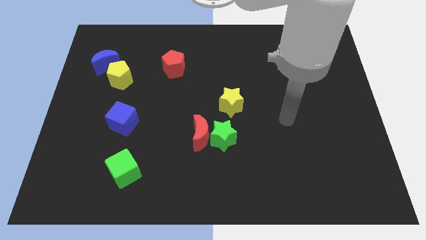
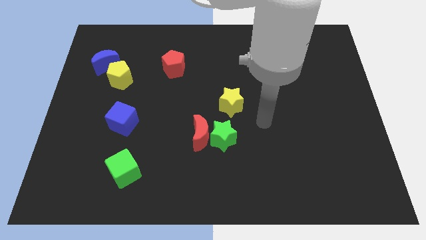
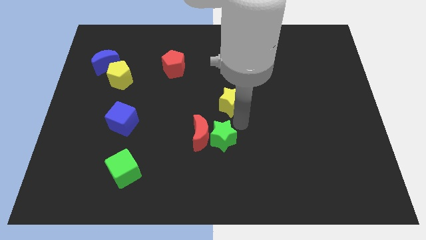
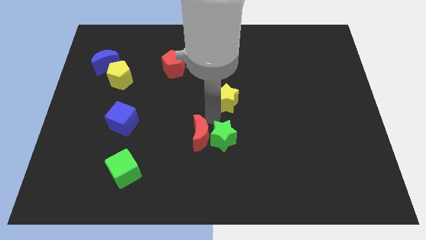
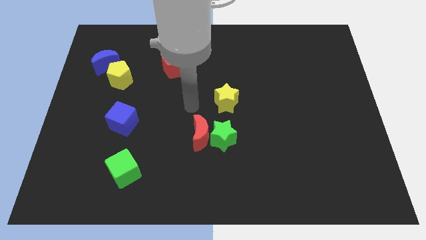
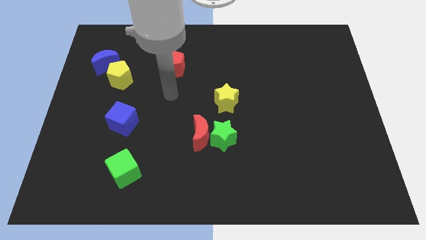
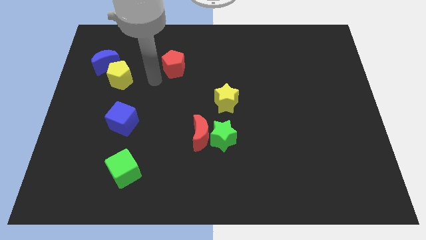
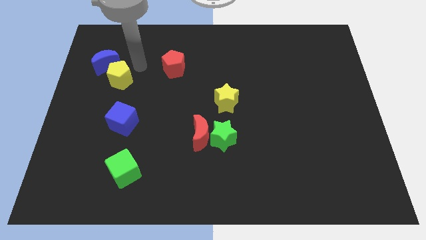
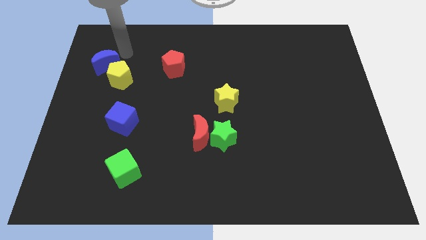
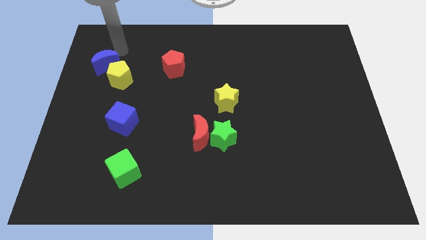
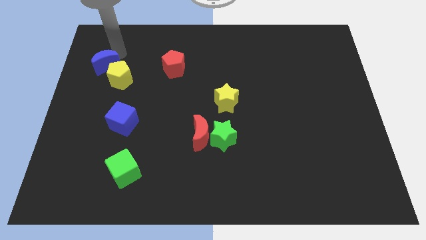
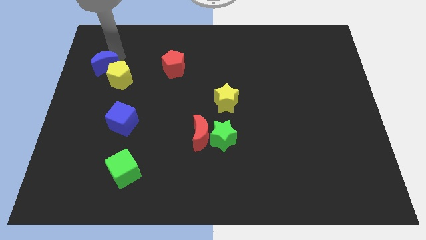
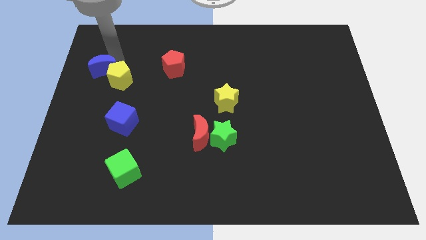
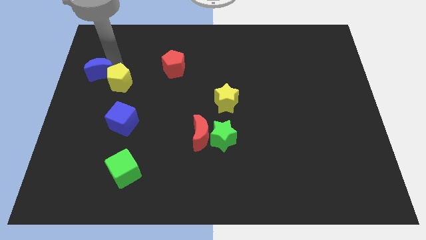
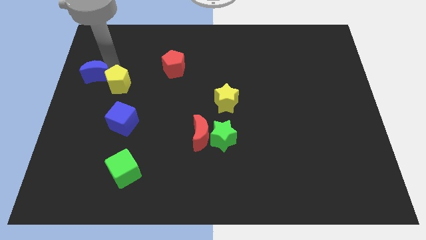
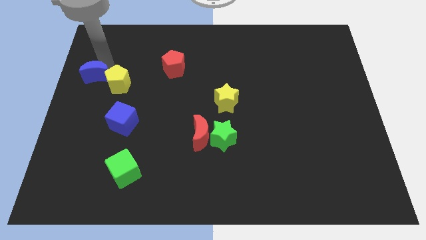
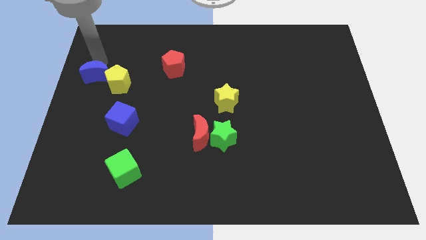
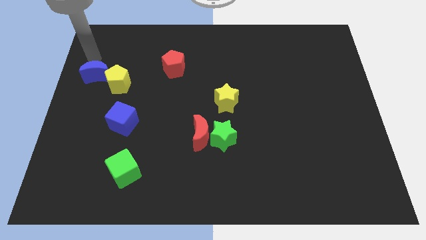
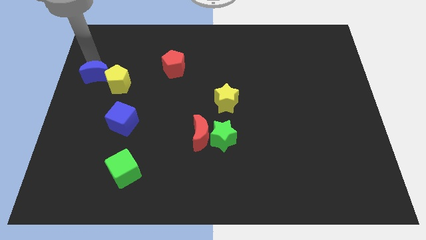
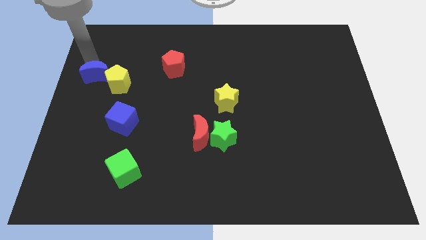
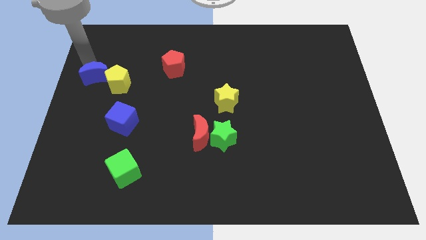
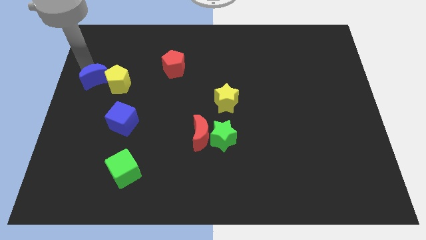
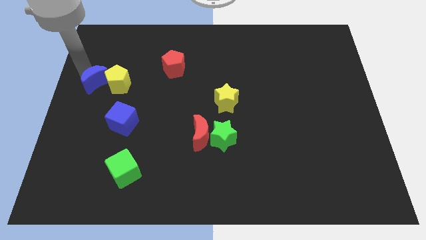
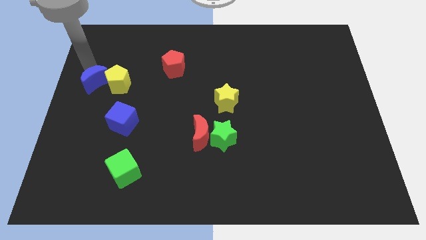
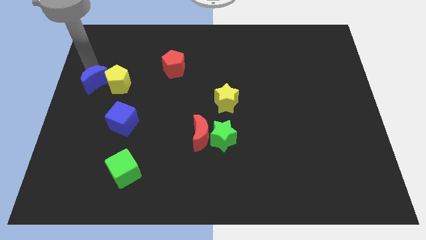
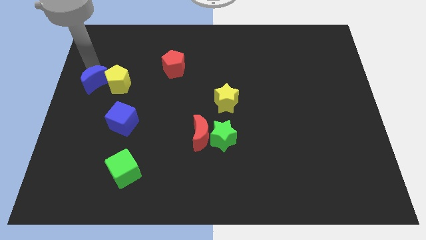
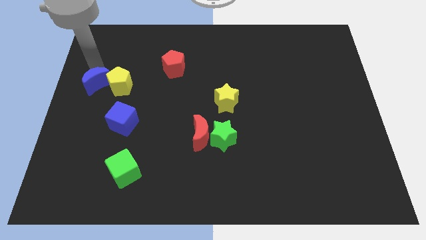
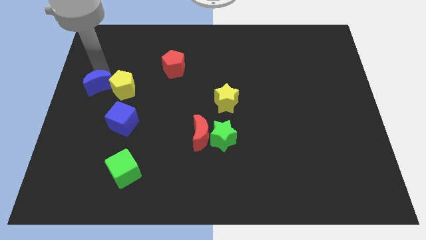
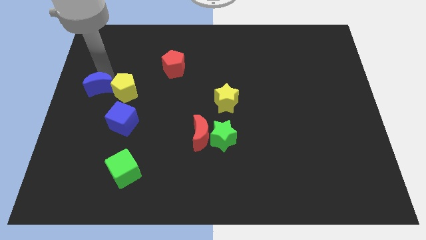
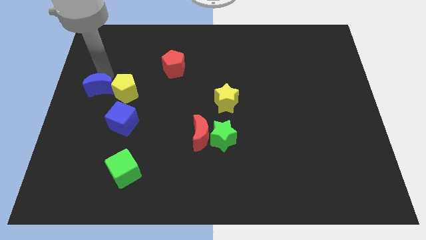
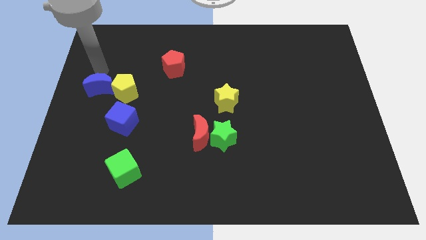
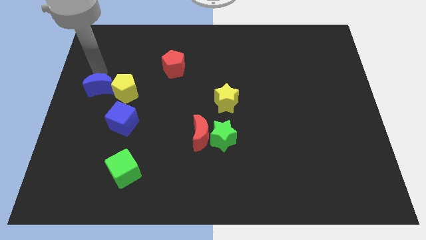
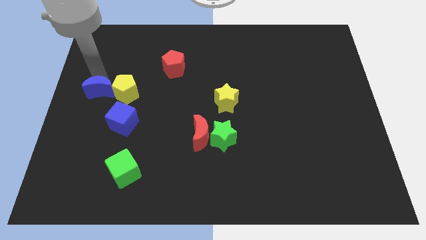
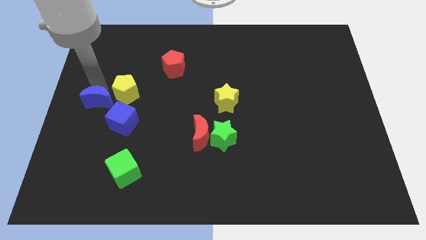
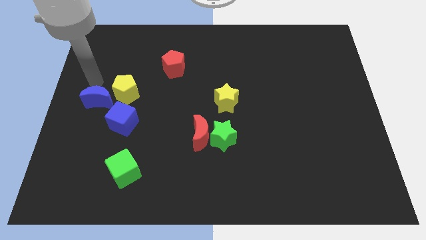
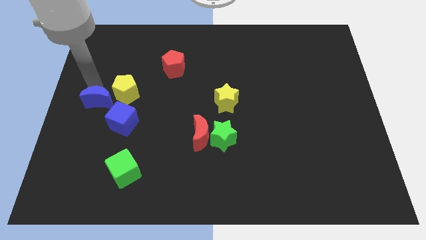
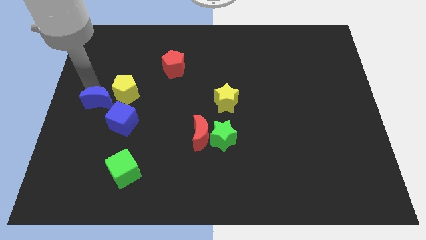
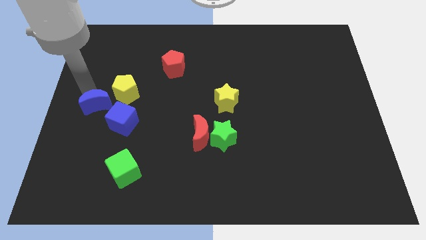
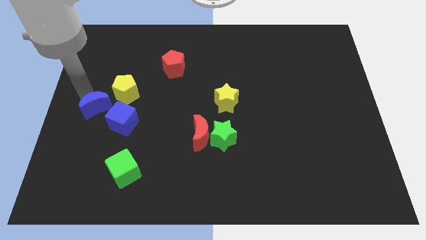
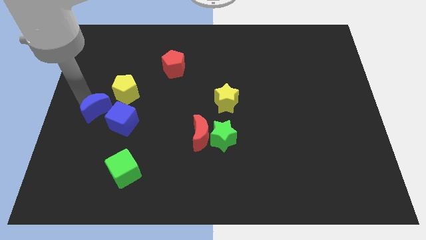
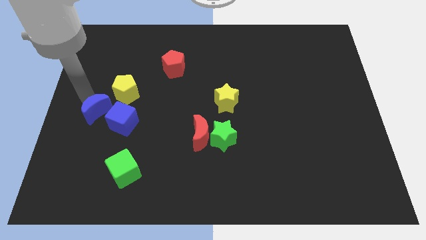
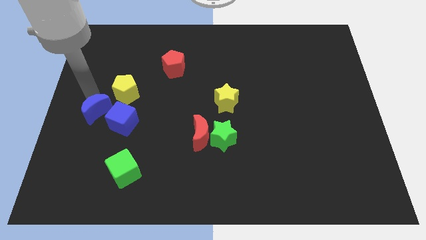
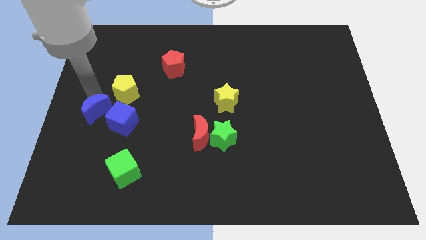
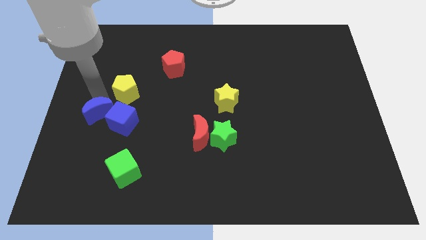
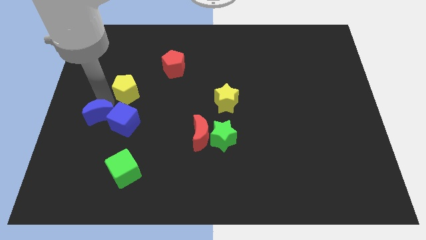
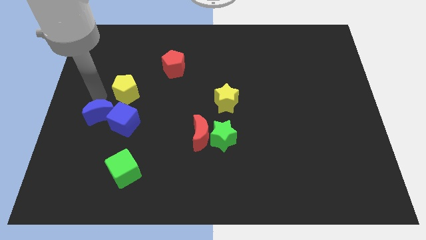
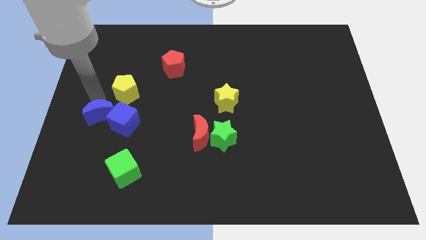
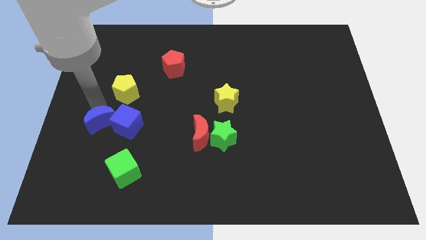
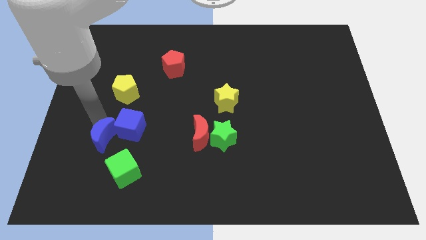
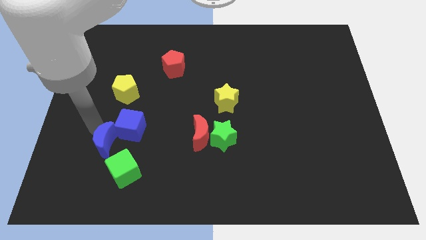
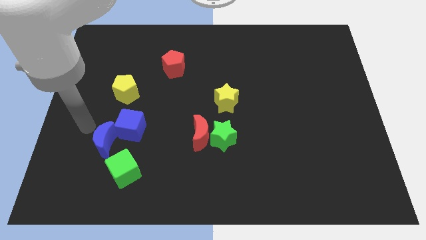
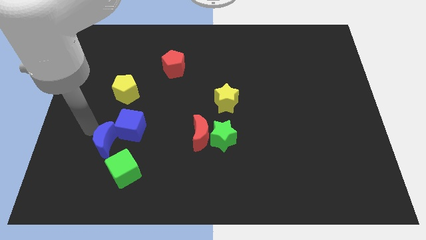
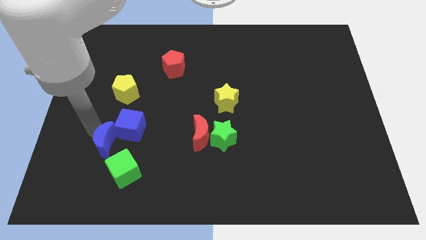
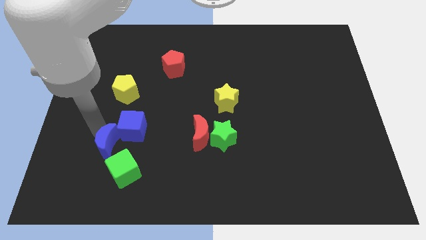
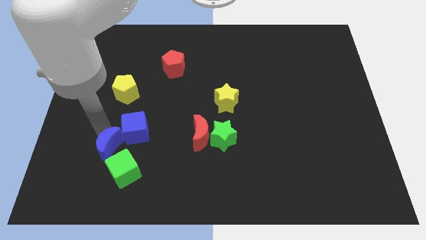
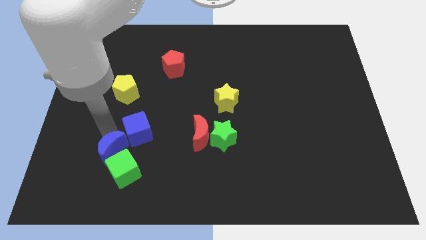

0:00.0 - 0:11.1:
slide the blue moon towards the green cube

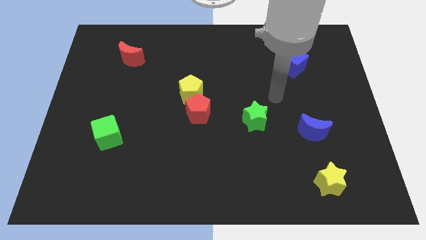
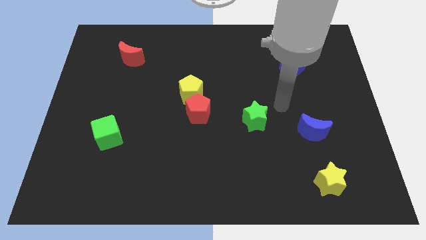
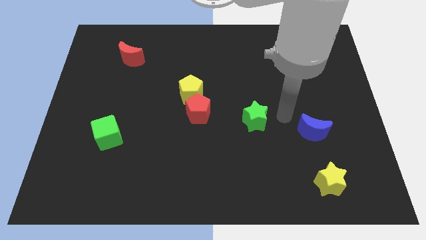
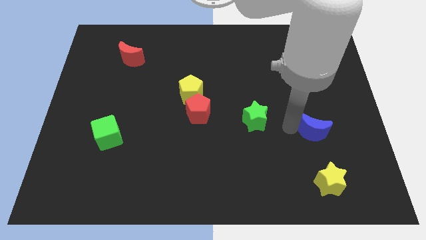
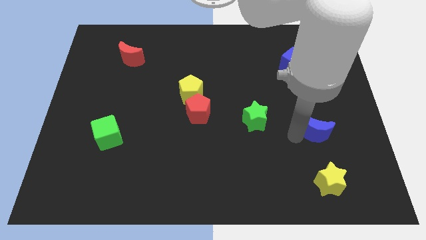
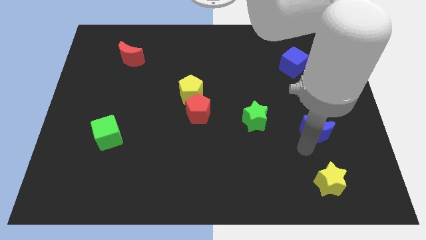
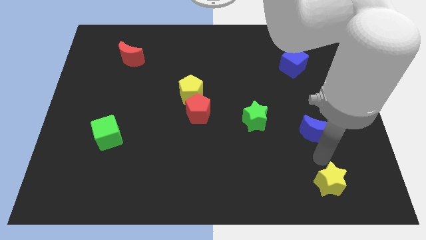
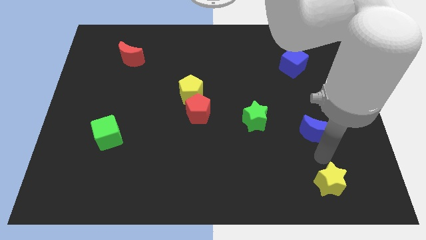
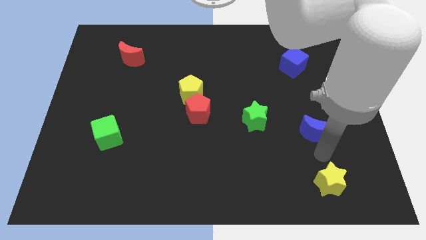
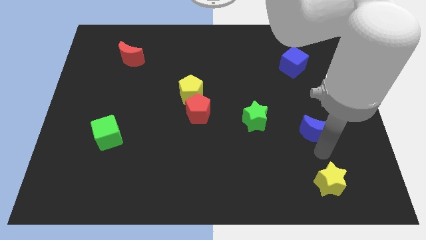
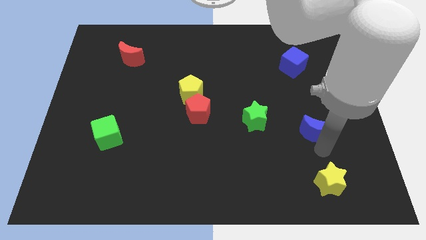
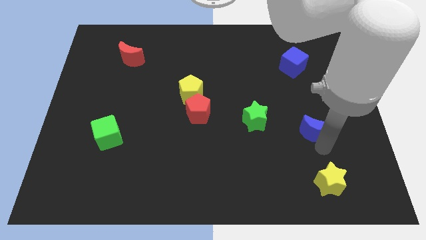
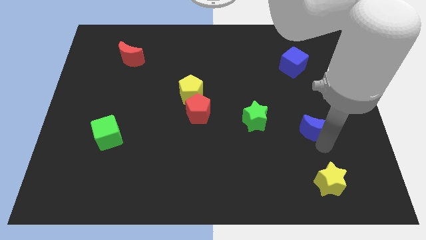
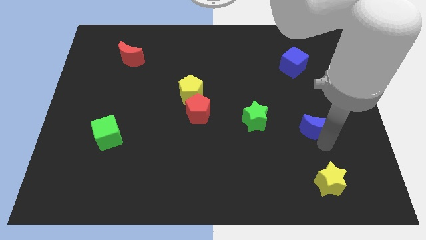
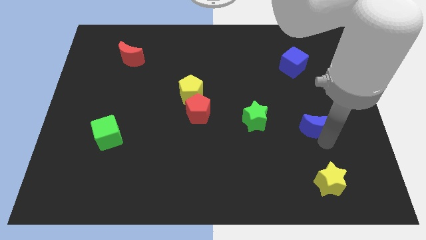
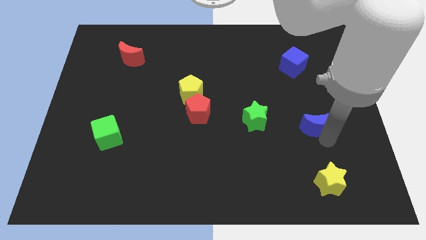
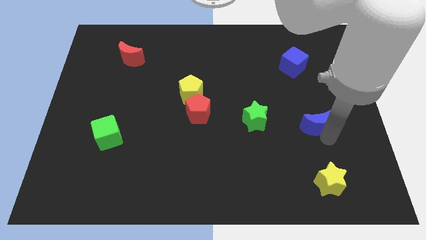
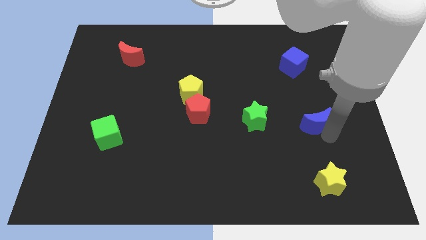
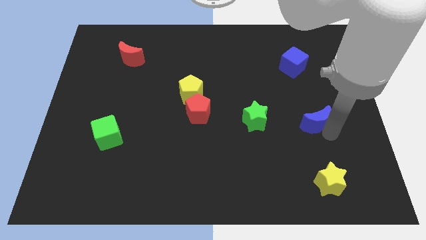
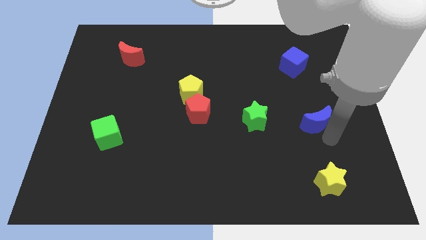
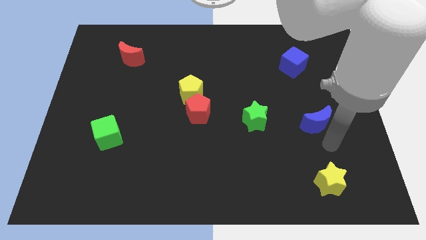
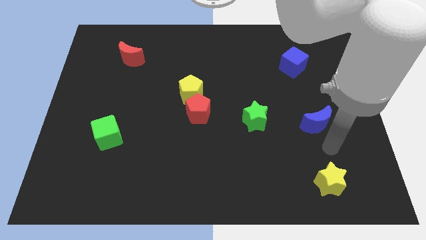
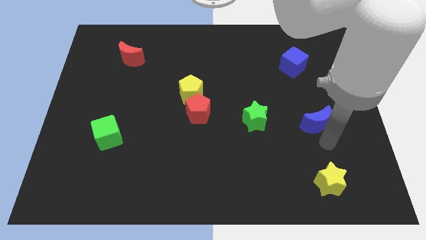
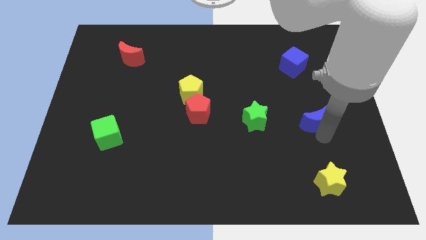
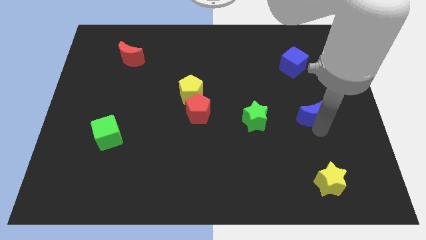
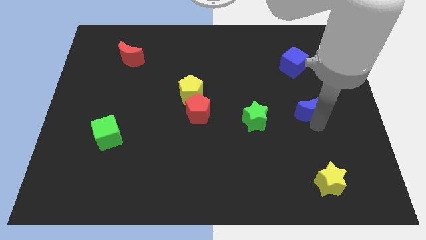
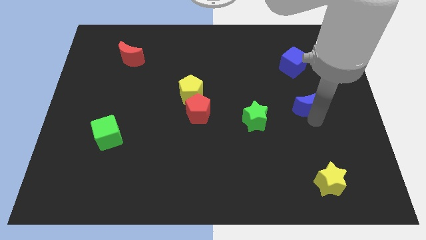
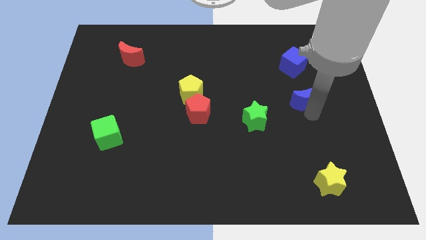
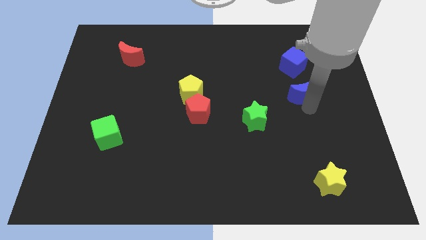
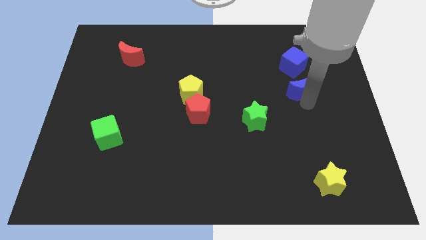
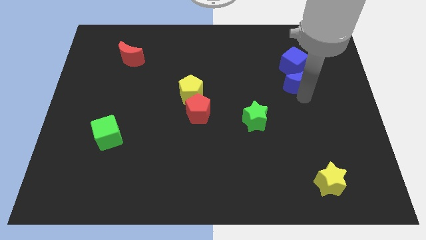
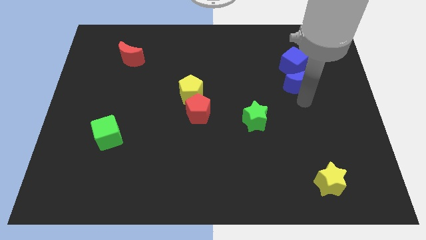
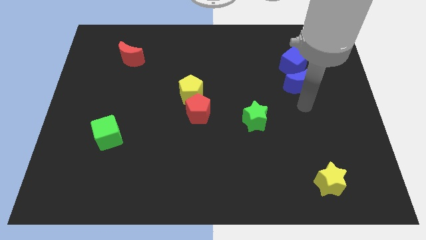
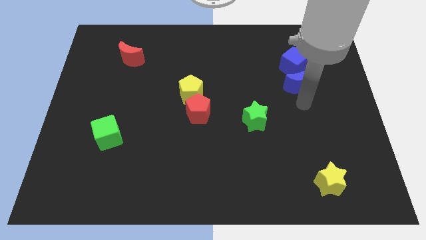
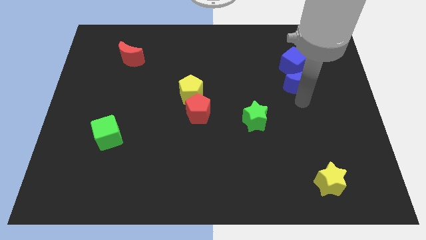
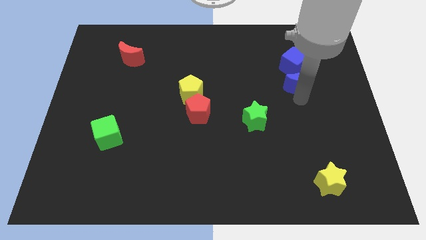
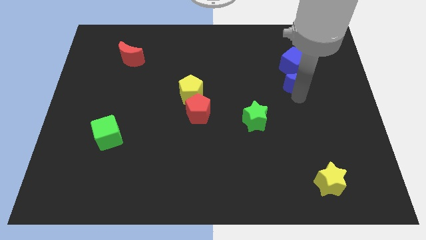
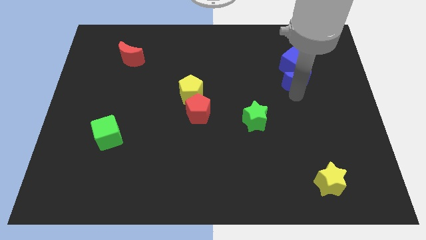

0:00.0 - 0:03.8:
move the blue moon towards the blue cube
